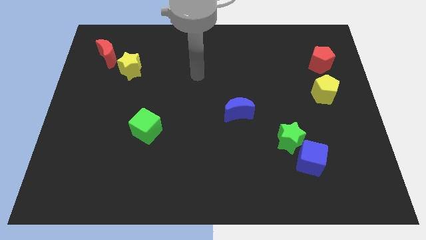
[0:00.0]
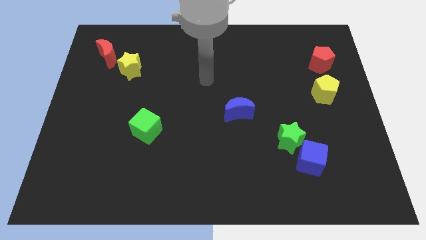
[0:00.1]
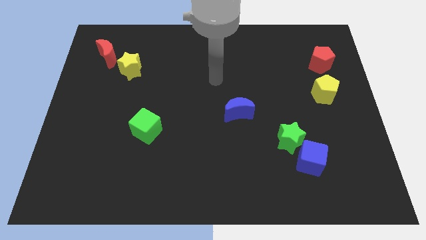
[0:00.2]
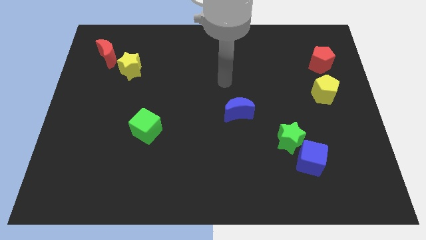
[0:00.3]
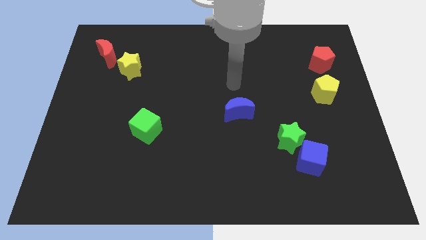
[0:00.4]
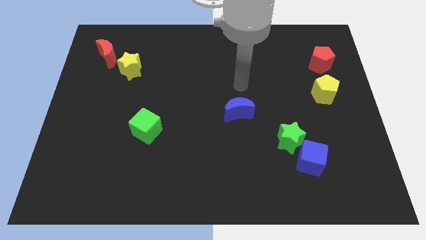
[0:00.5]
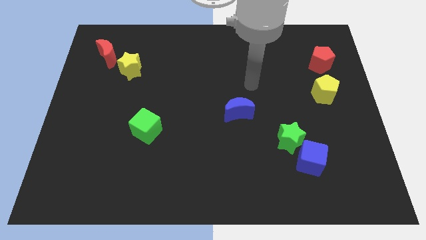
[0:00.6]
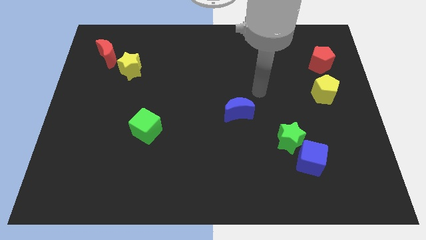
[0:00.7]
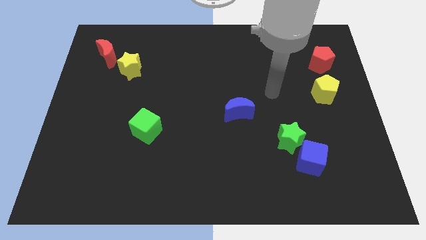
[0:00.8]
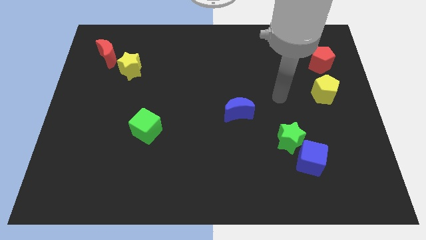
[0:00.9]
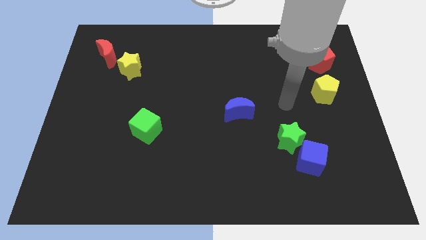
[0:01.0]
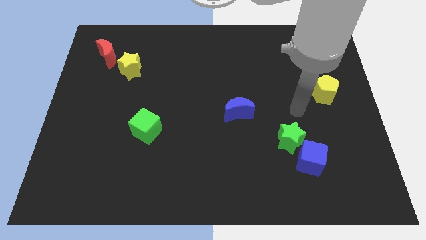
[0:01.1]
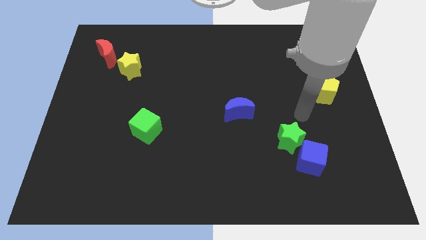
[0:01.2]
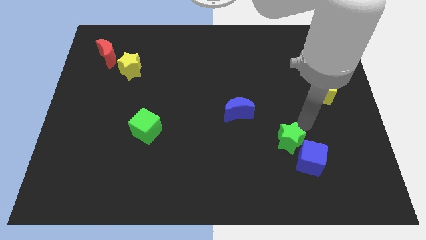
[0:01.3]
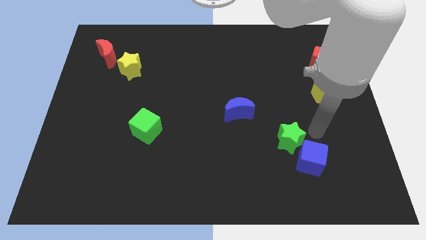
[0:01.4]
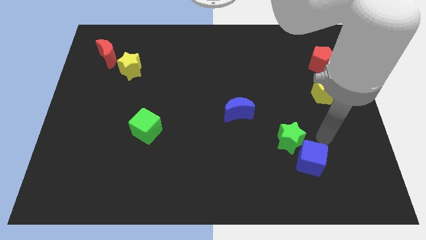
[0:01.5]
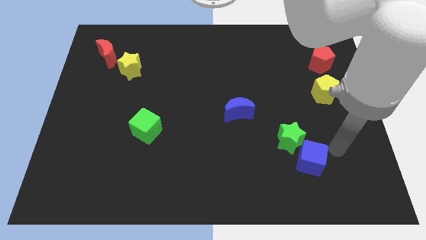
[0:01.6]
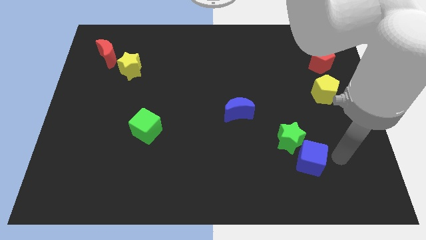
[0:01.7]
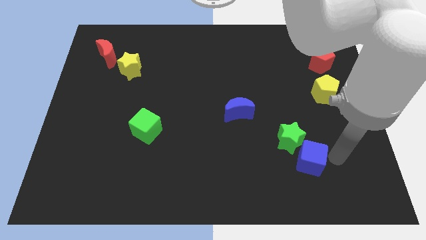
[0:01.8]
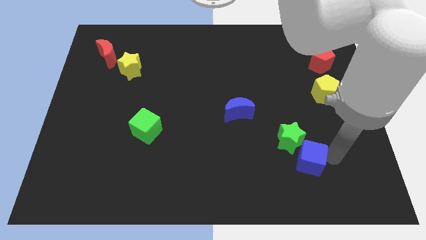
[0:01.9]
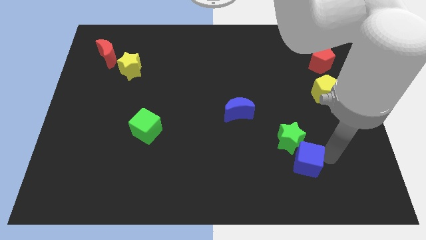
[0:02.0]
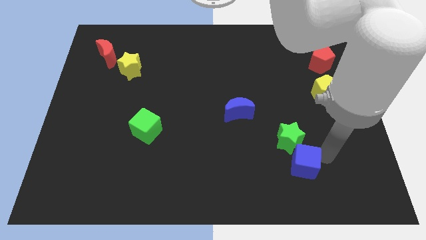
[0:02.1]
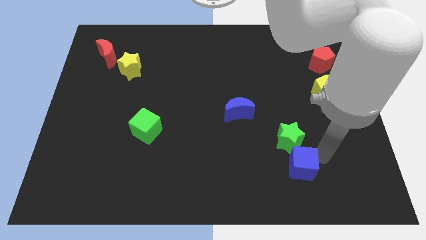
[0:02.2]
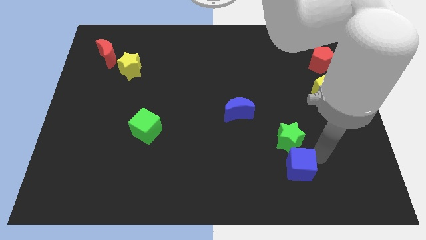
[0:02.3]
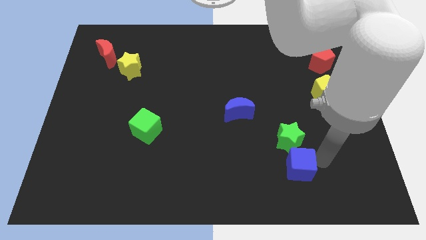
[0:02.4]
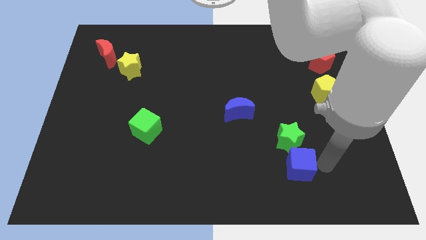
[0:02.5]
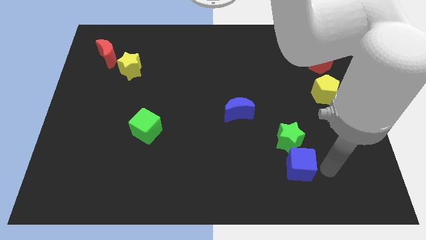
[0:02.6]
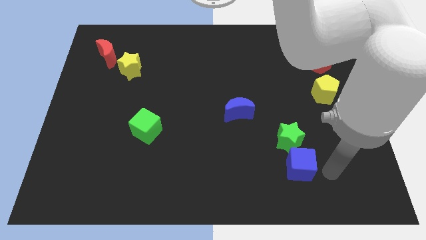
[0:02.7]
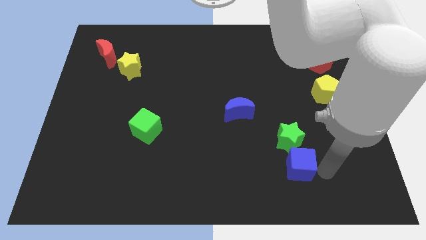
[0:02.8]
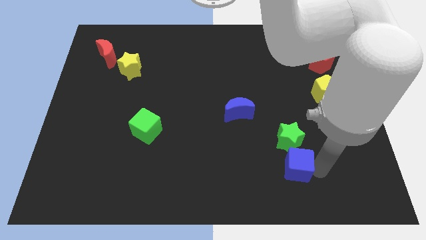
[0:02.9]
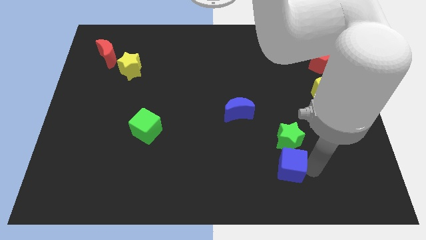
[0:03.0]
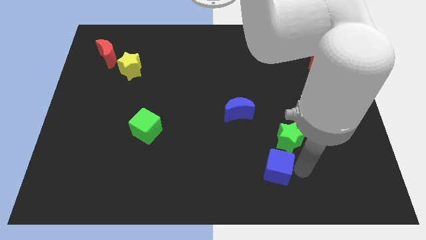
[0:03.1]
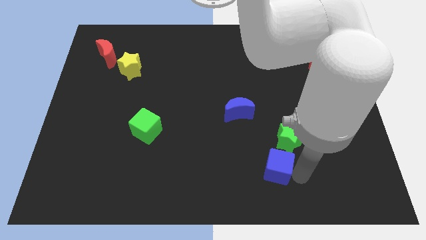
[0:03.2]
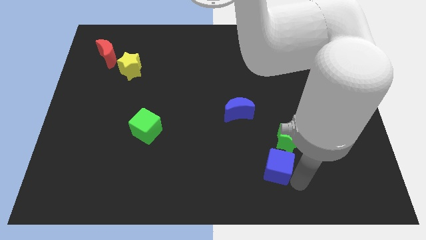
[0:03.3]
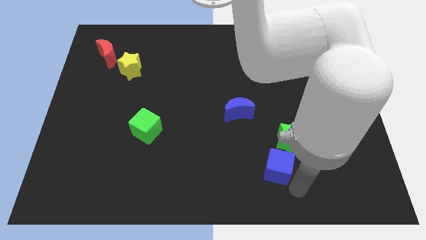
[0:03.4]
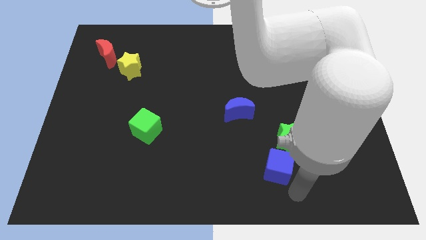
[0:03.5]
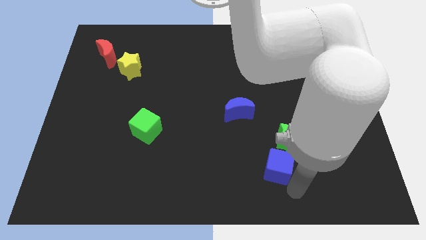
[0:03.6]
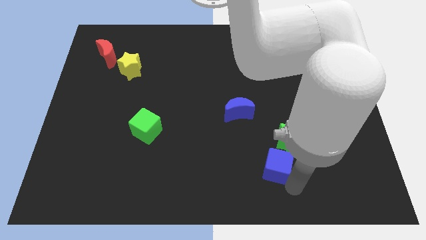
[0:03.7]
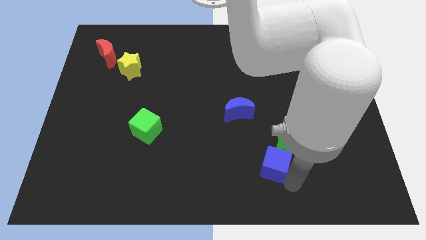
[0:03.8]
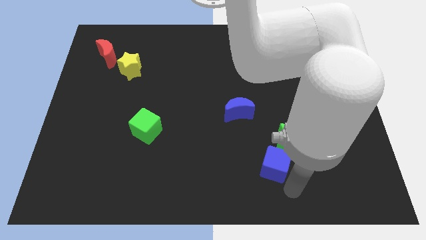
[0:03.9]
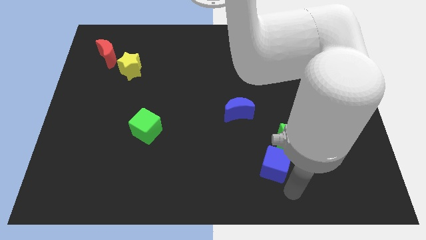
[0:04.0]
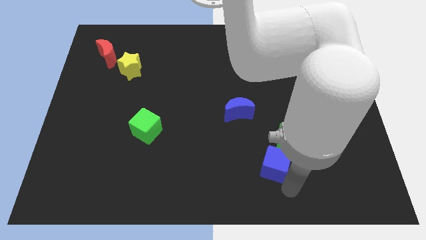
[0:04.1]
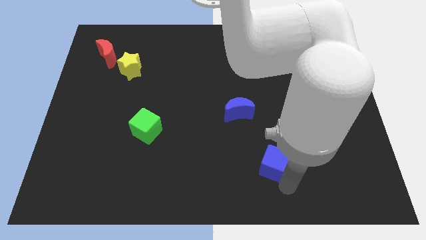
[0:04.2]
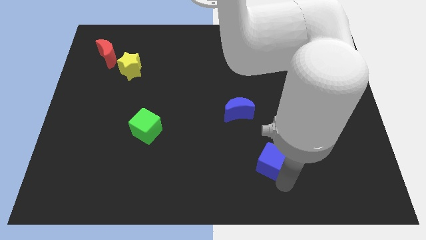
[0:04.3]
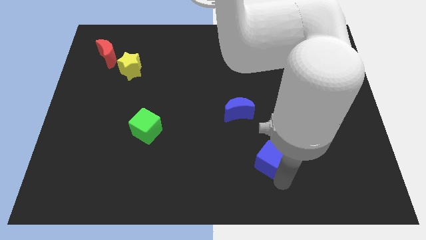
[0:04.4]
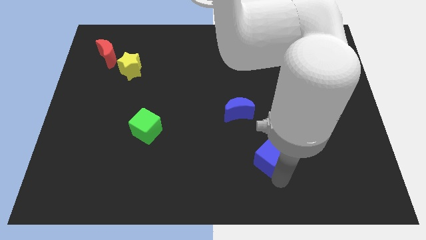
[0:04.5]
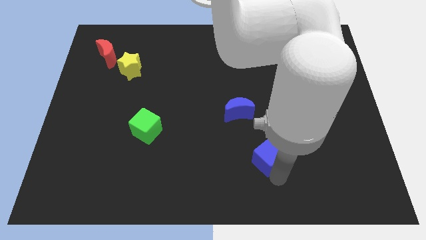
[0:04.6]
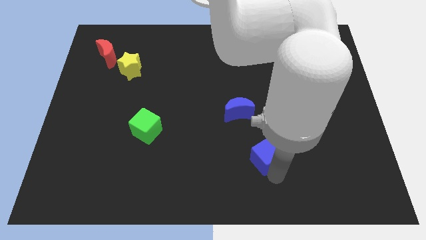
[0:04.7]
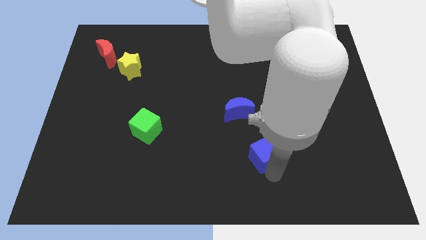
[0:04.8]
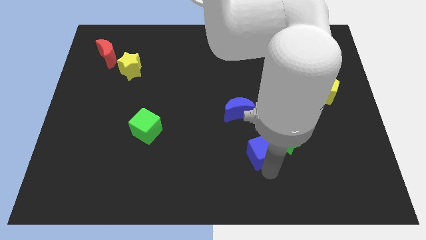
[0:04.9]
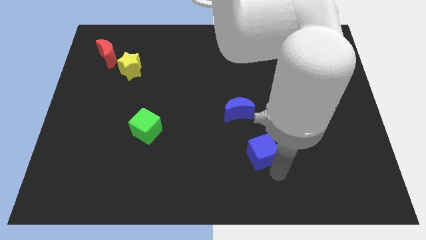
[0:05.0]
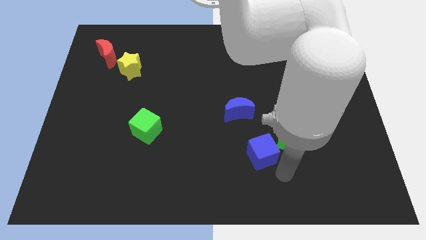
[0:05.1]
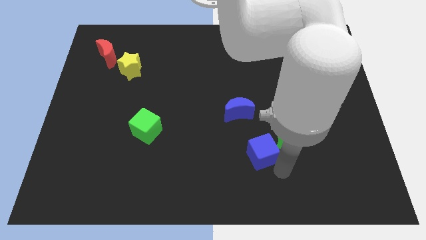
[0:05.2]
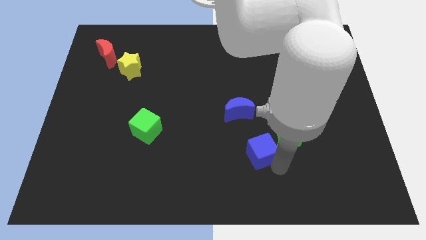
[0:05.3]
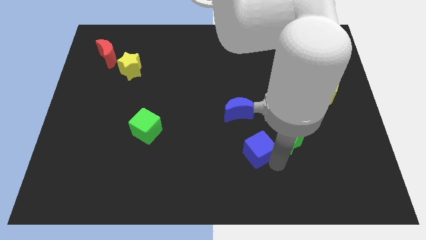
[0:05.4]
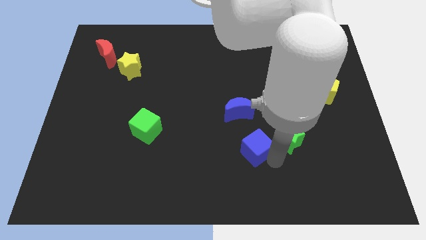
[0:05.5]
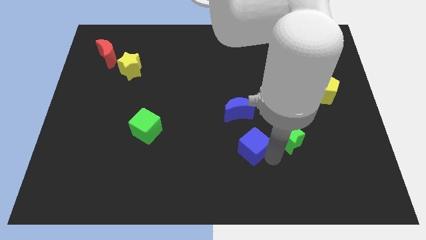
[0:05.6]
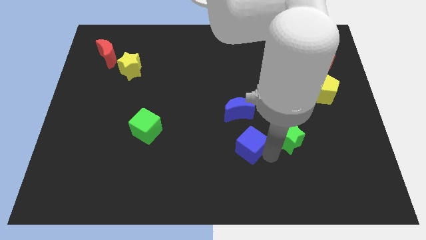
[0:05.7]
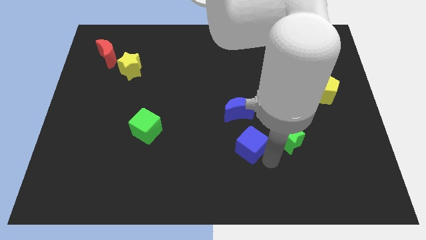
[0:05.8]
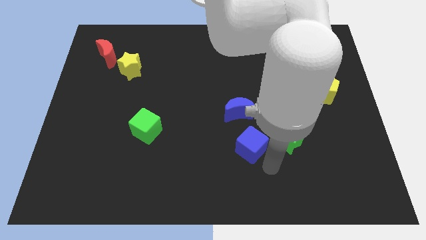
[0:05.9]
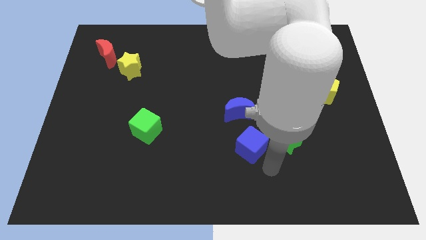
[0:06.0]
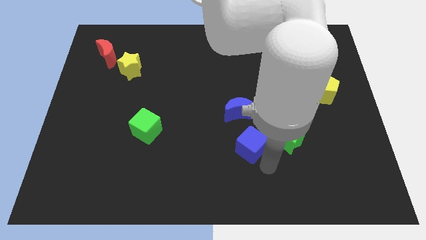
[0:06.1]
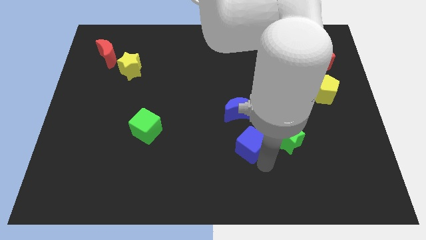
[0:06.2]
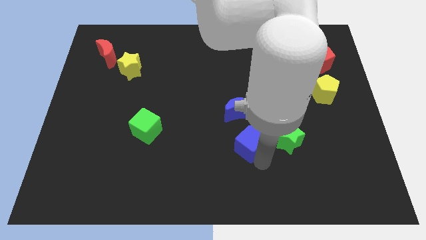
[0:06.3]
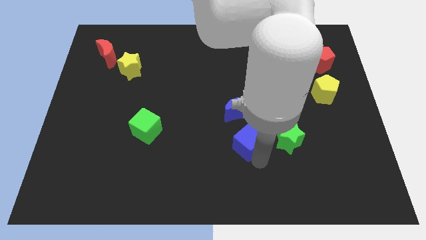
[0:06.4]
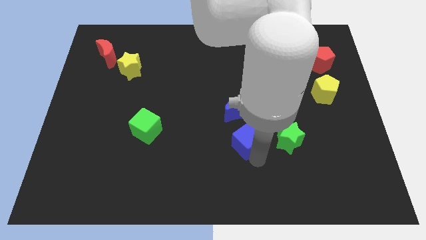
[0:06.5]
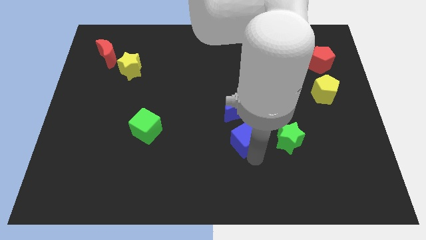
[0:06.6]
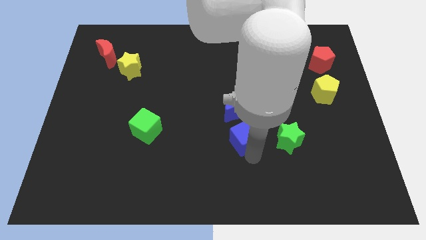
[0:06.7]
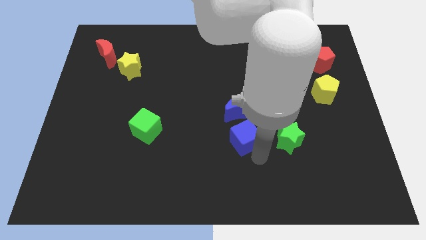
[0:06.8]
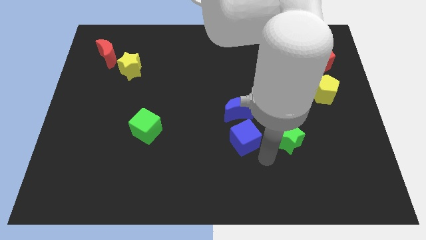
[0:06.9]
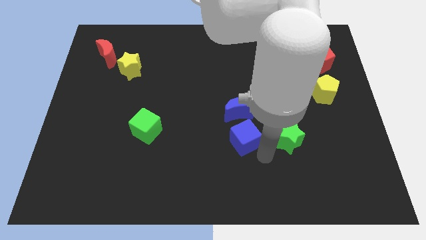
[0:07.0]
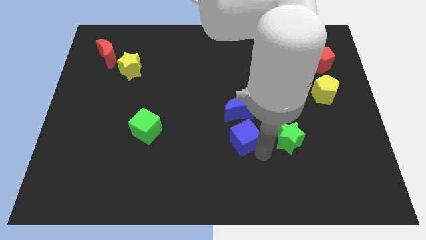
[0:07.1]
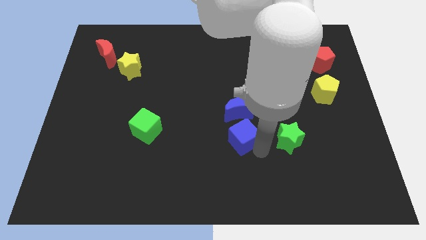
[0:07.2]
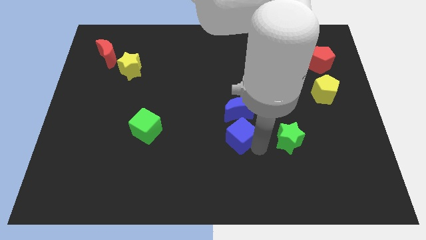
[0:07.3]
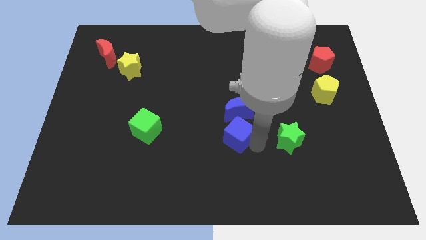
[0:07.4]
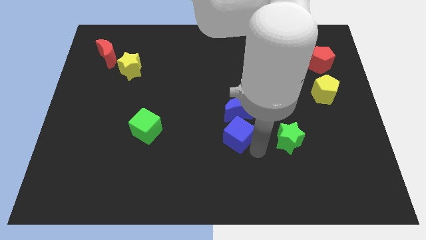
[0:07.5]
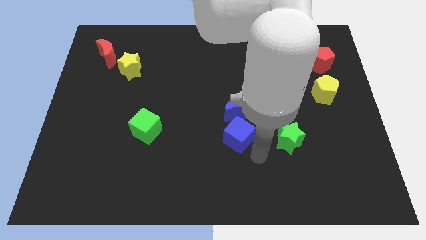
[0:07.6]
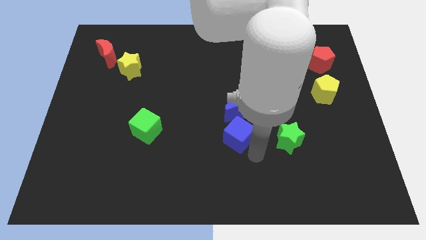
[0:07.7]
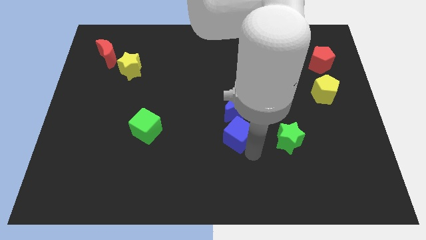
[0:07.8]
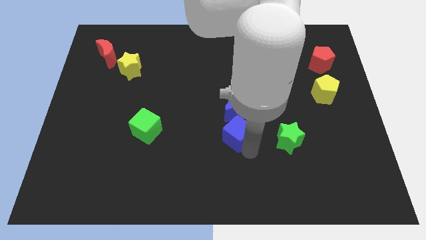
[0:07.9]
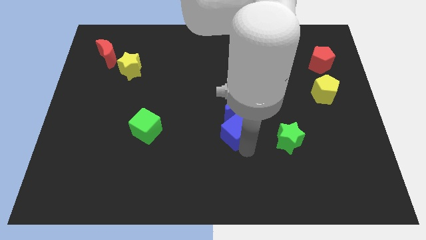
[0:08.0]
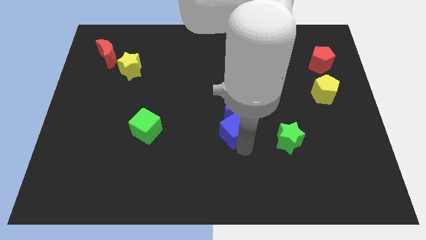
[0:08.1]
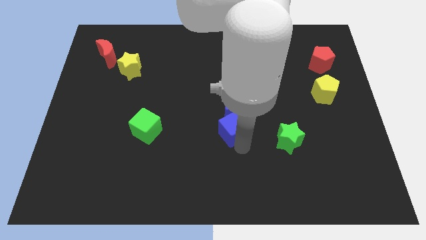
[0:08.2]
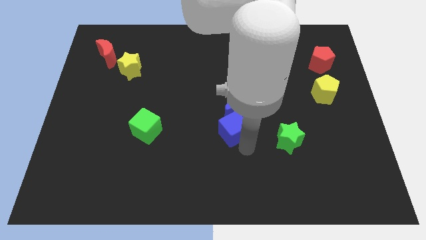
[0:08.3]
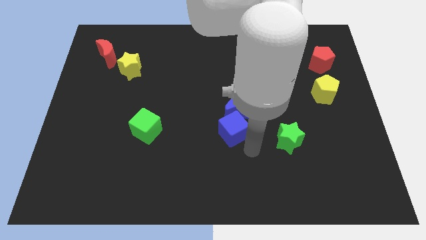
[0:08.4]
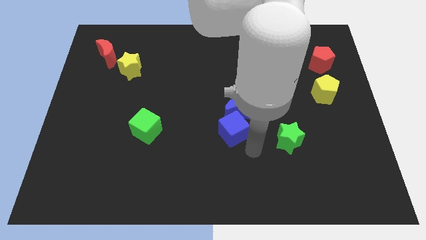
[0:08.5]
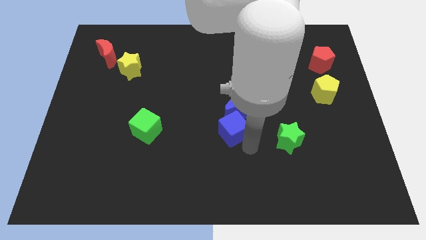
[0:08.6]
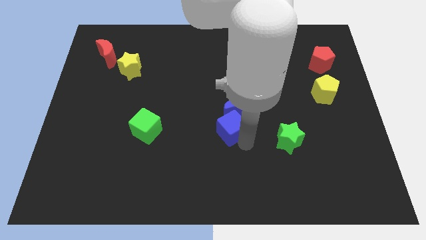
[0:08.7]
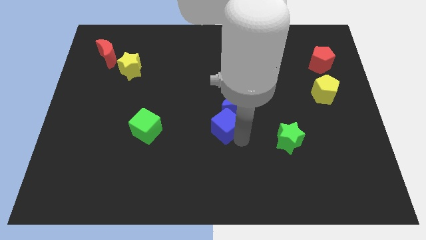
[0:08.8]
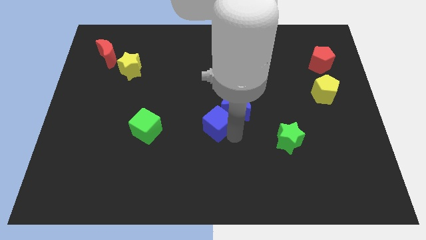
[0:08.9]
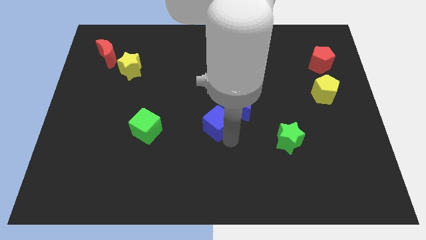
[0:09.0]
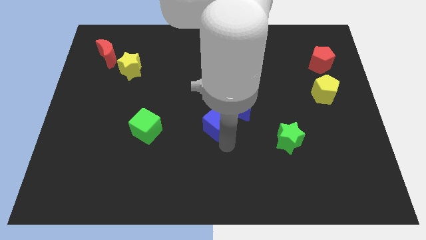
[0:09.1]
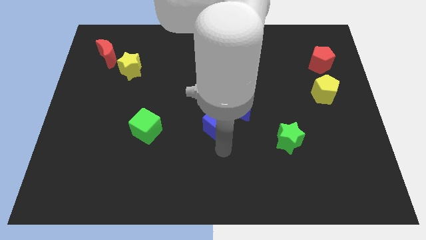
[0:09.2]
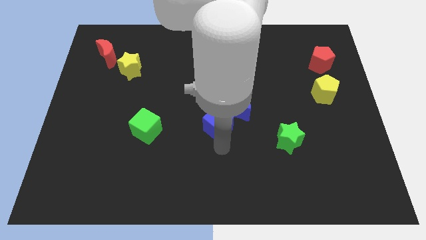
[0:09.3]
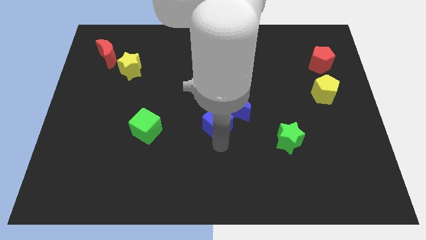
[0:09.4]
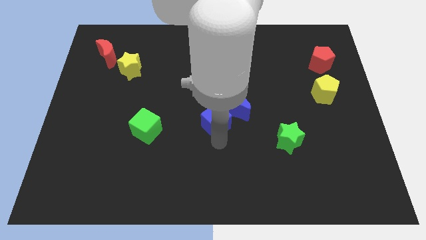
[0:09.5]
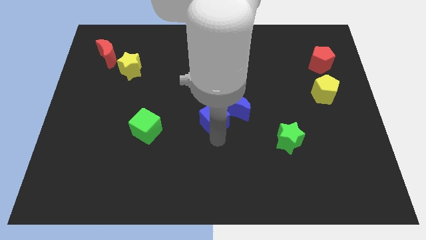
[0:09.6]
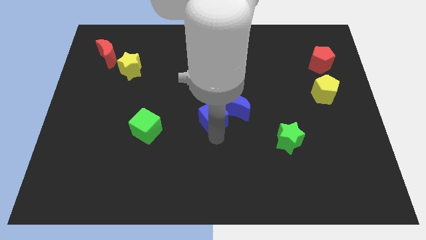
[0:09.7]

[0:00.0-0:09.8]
push the blue cube upwards and left
